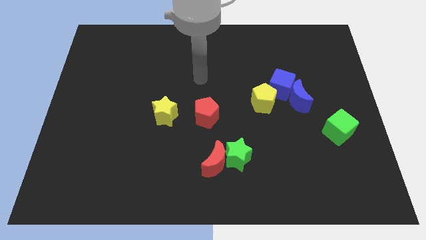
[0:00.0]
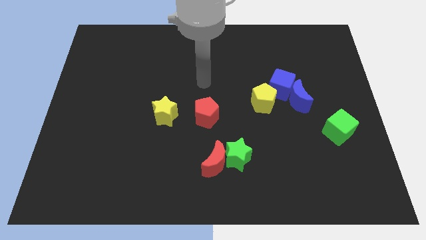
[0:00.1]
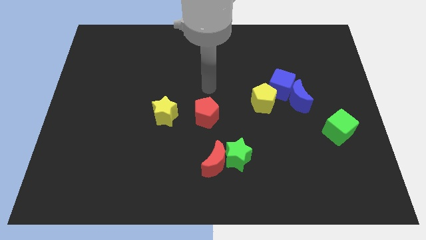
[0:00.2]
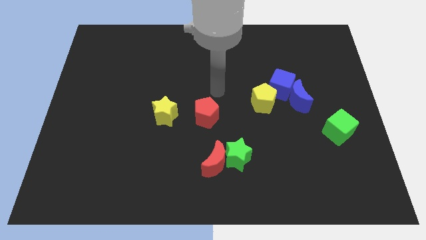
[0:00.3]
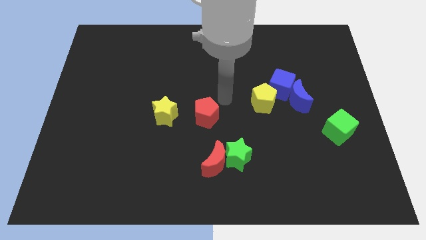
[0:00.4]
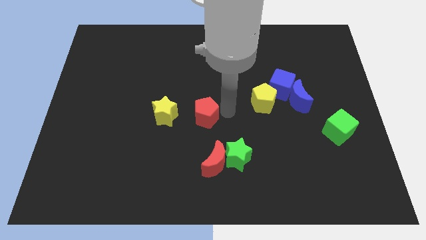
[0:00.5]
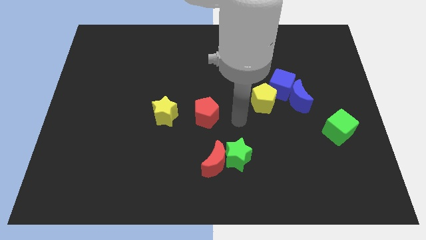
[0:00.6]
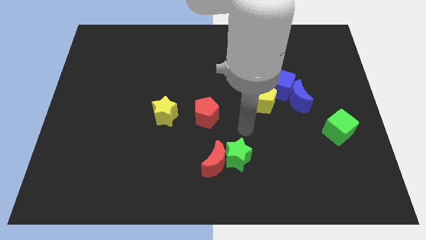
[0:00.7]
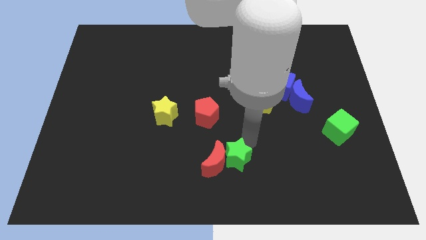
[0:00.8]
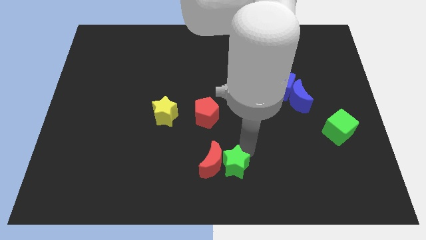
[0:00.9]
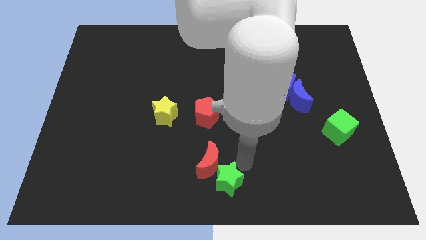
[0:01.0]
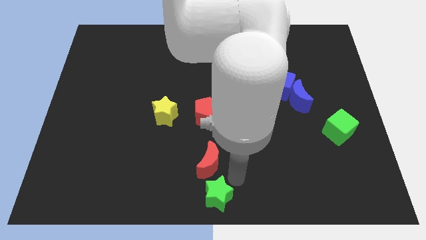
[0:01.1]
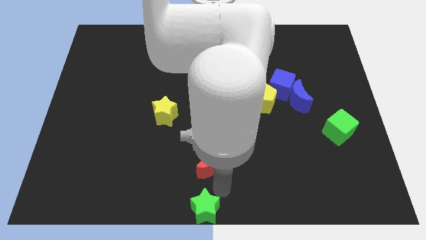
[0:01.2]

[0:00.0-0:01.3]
separate the red moon from the green star

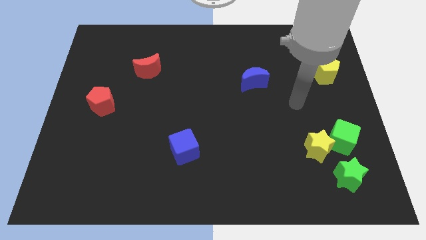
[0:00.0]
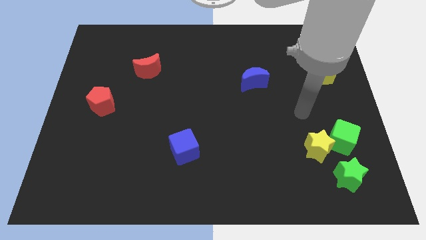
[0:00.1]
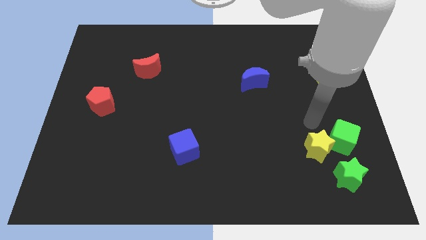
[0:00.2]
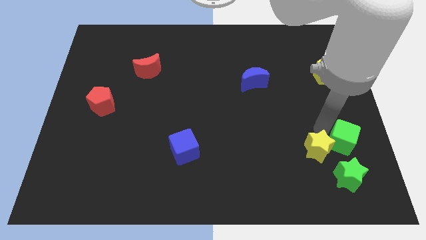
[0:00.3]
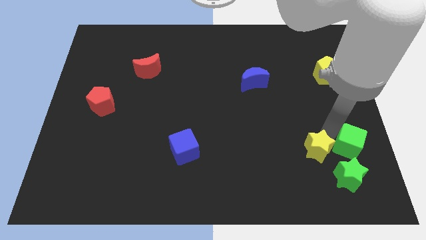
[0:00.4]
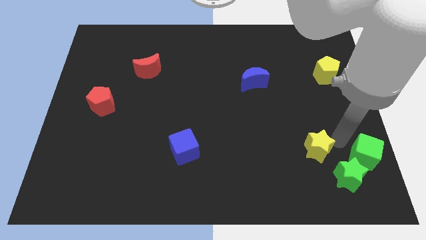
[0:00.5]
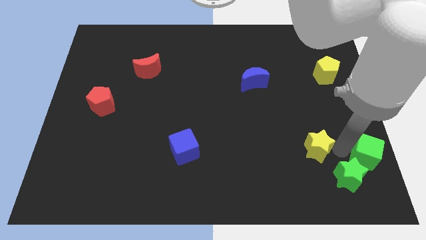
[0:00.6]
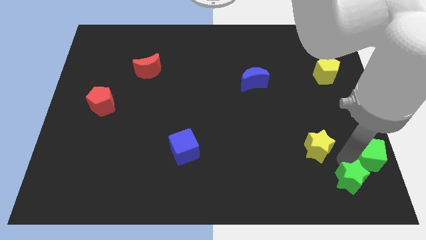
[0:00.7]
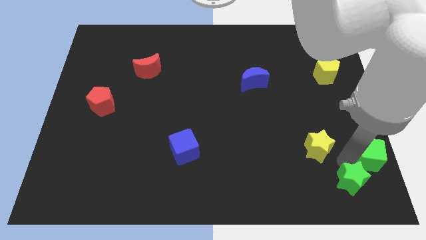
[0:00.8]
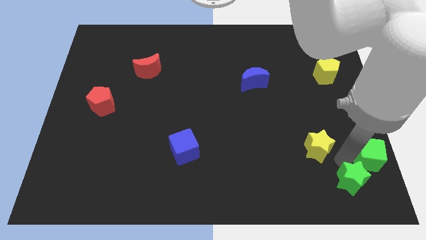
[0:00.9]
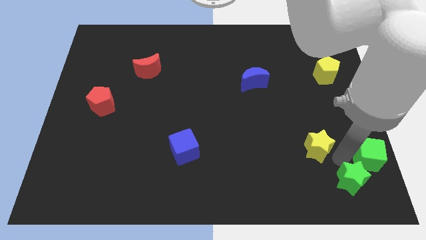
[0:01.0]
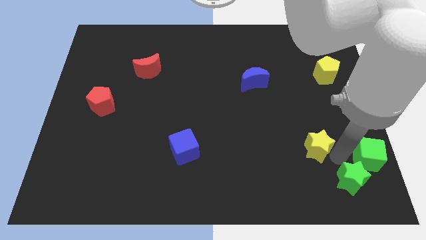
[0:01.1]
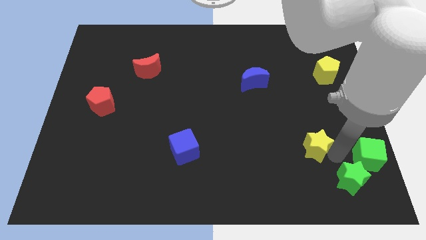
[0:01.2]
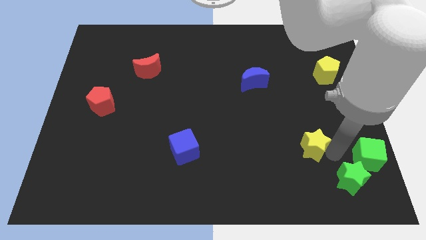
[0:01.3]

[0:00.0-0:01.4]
move the yellow star away from the green cube and green star

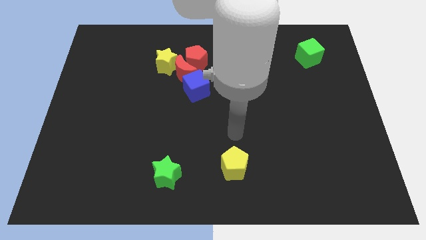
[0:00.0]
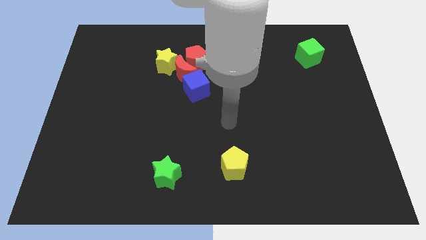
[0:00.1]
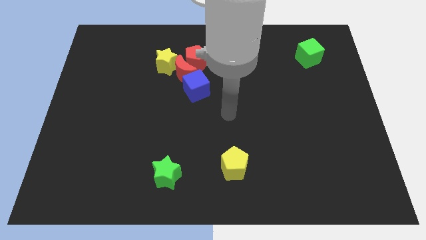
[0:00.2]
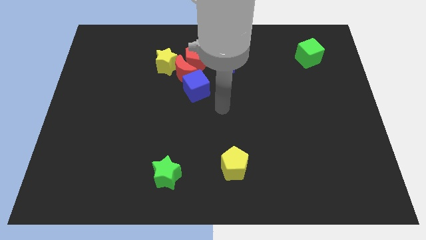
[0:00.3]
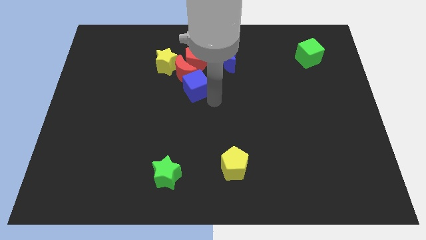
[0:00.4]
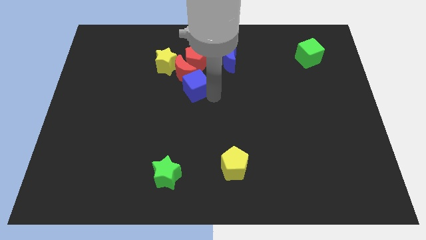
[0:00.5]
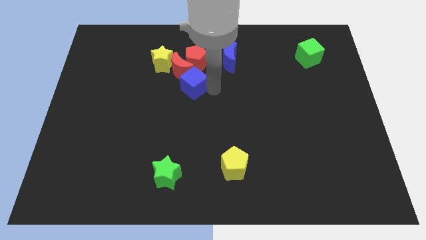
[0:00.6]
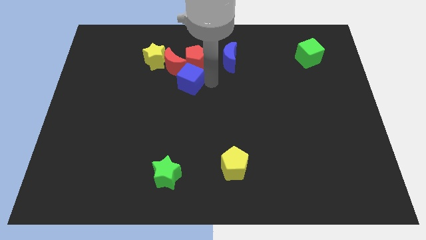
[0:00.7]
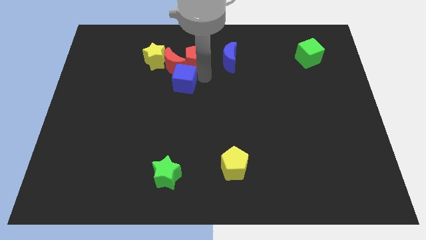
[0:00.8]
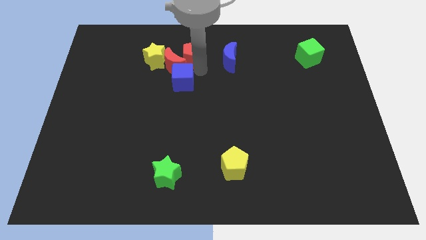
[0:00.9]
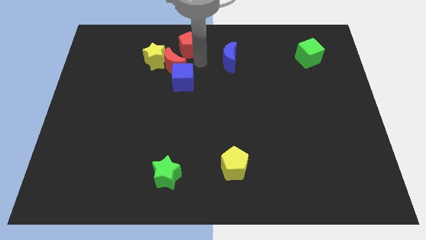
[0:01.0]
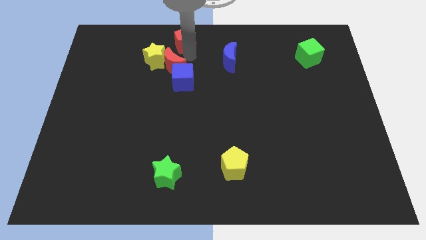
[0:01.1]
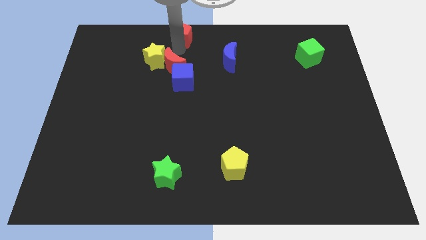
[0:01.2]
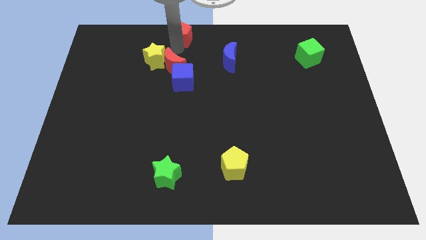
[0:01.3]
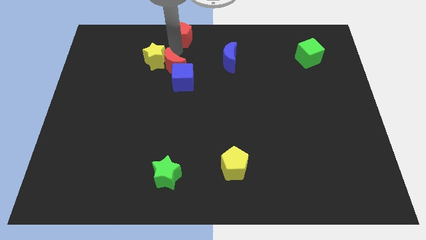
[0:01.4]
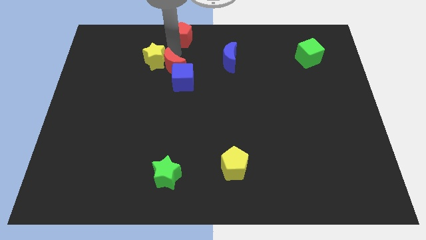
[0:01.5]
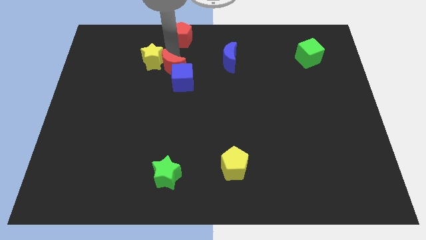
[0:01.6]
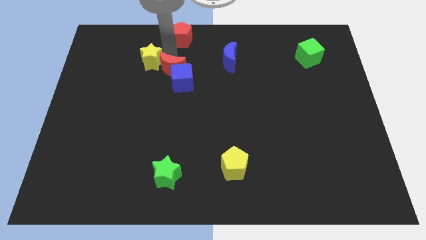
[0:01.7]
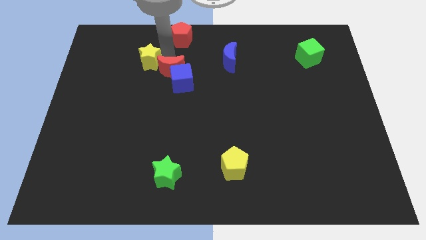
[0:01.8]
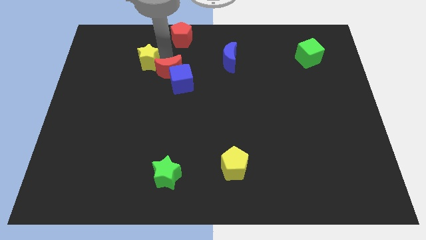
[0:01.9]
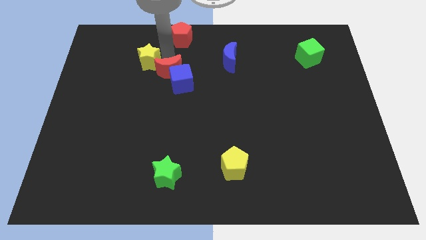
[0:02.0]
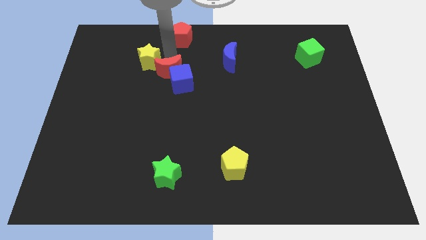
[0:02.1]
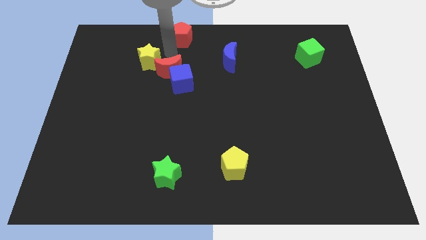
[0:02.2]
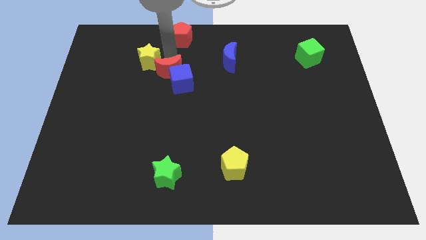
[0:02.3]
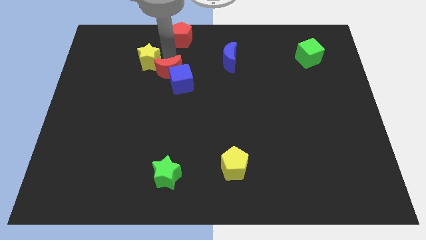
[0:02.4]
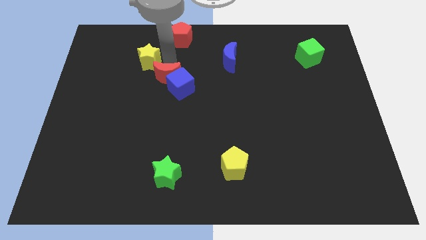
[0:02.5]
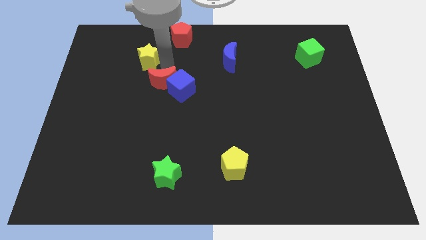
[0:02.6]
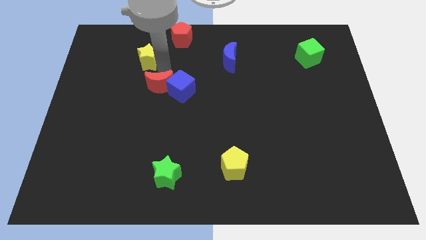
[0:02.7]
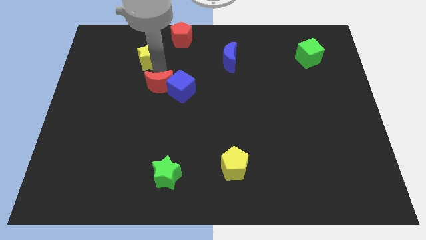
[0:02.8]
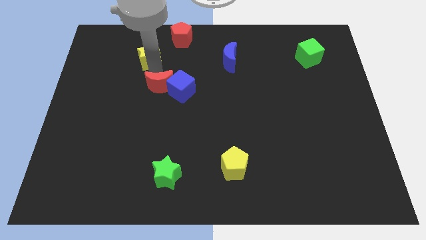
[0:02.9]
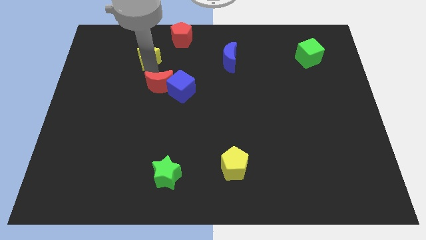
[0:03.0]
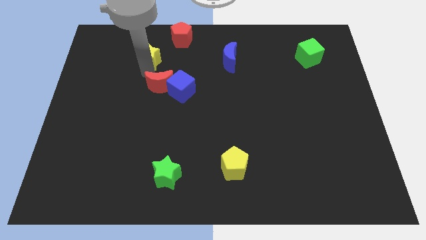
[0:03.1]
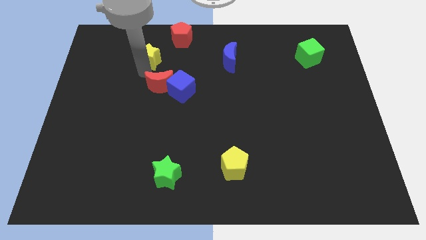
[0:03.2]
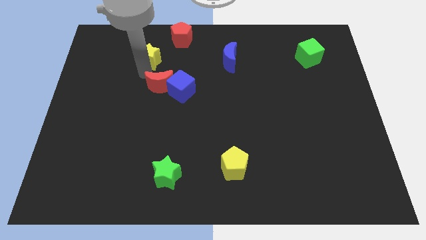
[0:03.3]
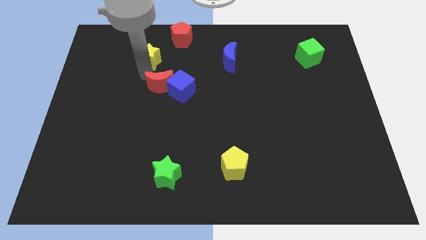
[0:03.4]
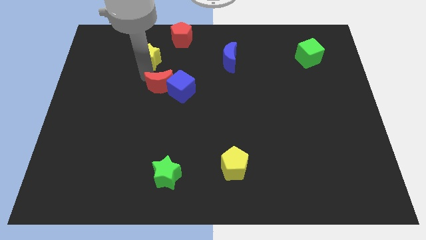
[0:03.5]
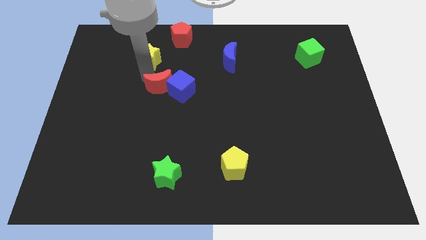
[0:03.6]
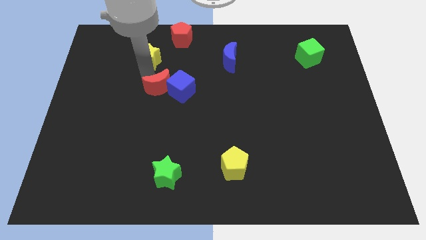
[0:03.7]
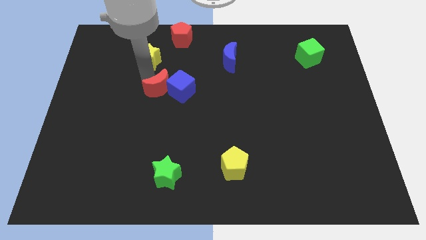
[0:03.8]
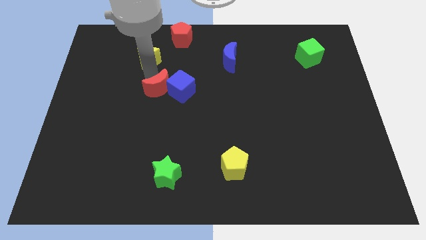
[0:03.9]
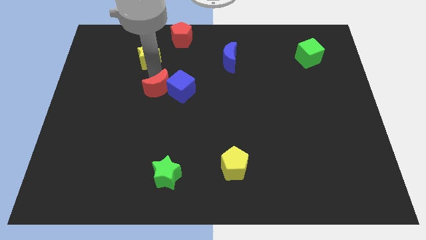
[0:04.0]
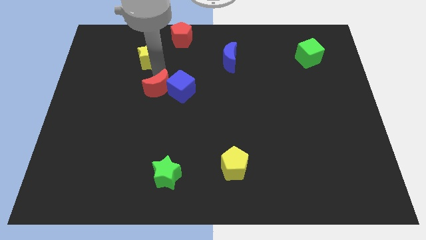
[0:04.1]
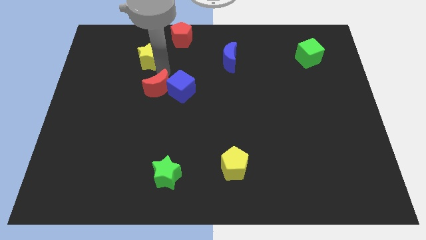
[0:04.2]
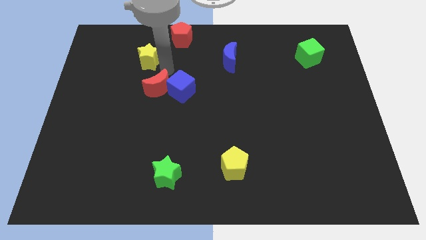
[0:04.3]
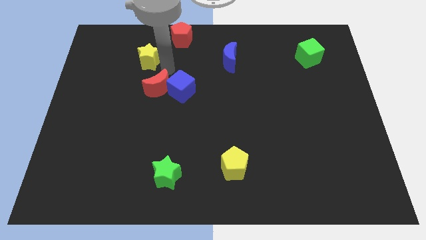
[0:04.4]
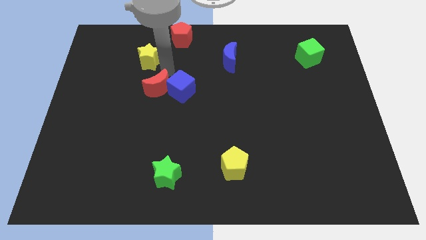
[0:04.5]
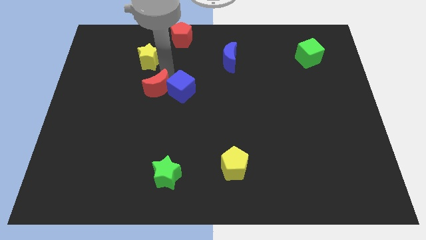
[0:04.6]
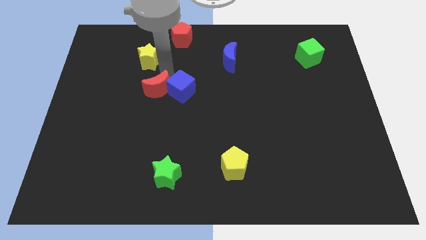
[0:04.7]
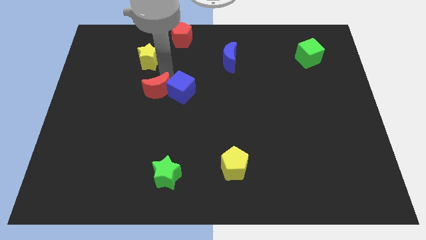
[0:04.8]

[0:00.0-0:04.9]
move the red moon away from the red pentagon, yellow star, and blue cube

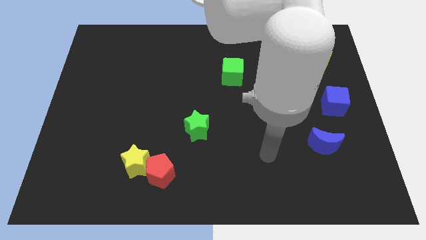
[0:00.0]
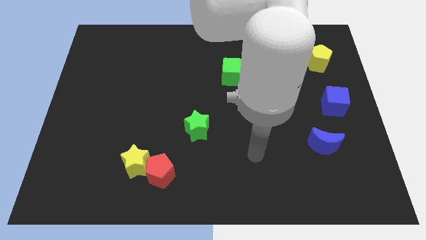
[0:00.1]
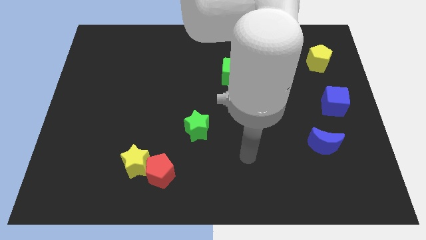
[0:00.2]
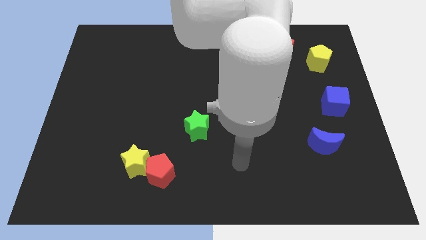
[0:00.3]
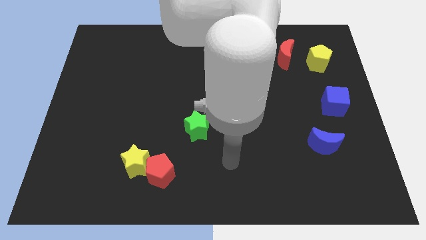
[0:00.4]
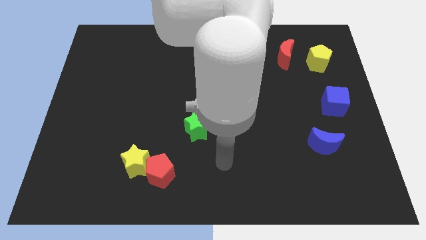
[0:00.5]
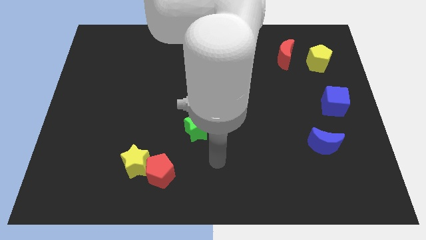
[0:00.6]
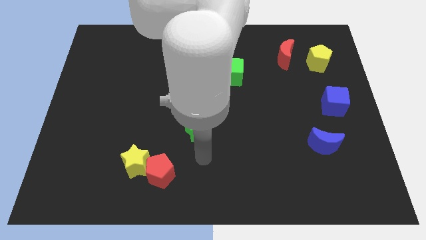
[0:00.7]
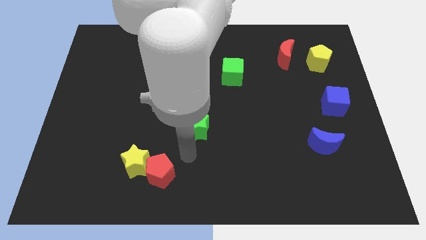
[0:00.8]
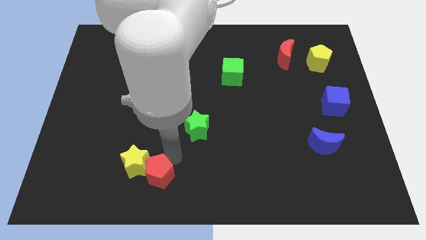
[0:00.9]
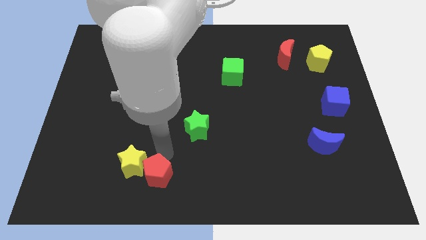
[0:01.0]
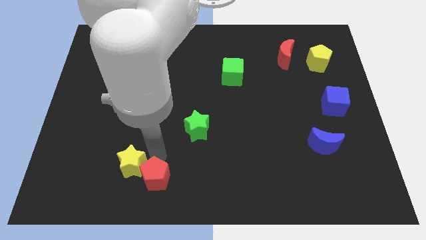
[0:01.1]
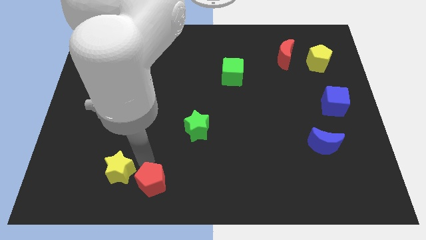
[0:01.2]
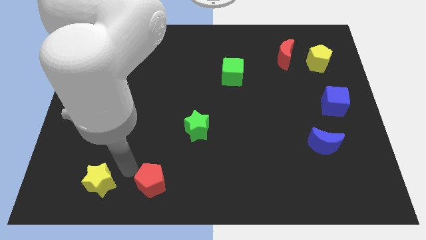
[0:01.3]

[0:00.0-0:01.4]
pull the red pentagon apart from the yellow star

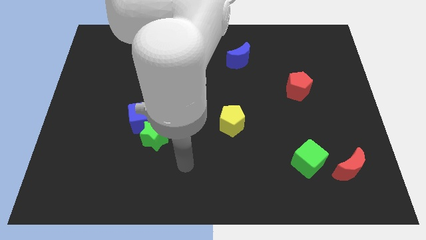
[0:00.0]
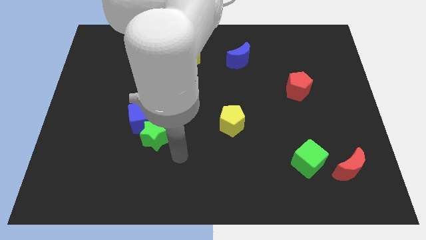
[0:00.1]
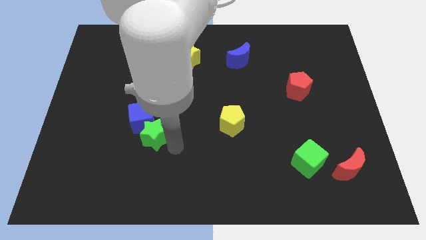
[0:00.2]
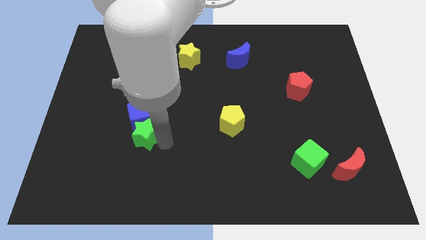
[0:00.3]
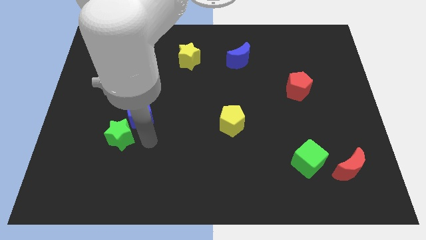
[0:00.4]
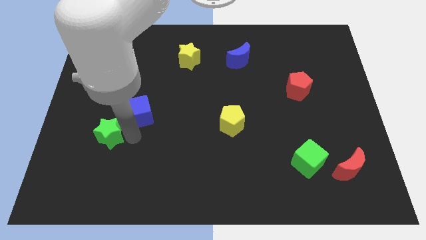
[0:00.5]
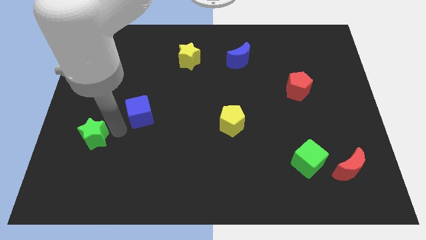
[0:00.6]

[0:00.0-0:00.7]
separate the blue cube from the green star
